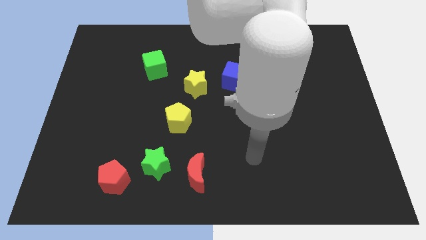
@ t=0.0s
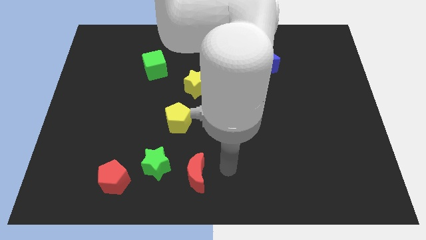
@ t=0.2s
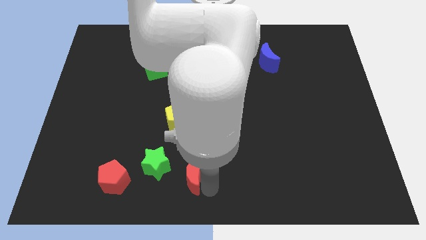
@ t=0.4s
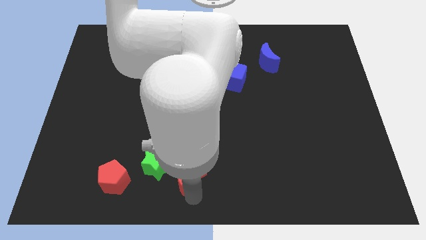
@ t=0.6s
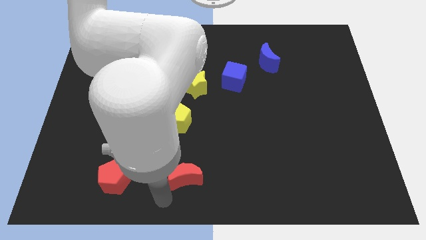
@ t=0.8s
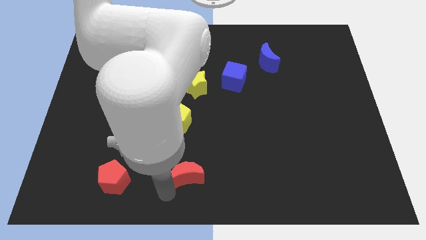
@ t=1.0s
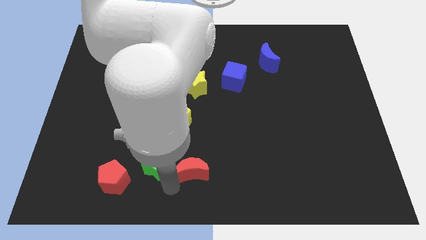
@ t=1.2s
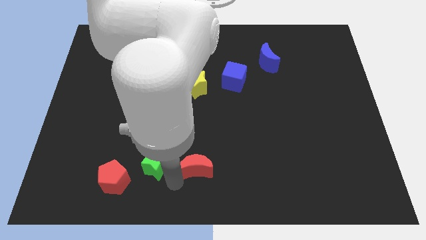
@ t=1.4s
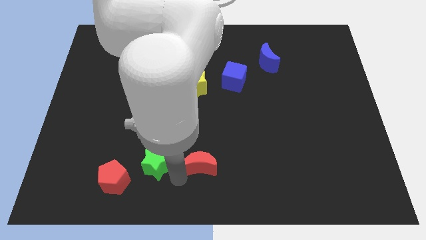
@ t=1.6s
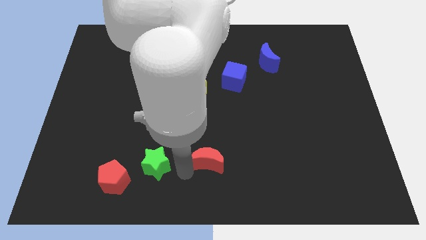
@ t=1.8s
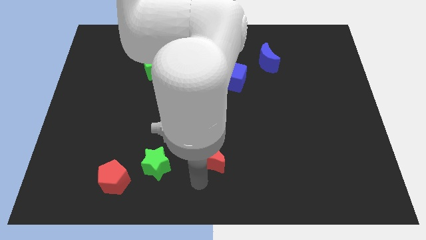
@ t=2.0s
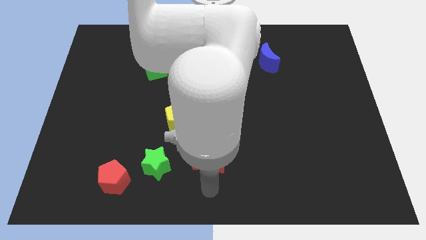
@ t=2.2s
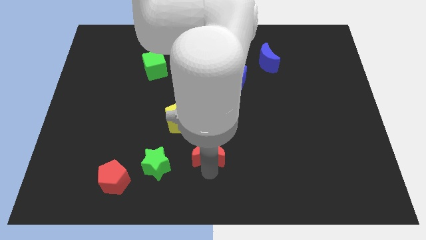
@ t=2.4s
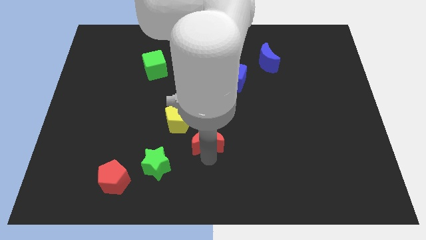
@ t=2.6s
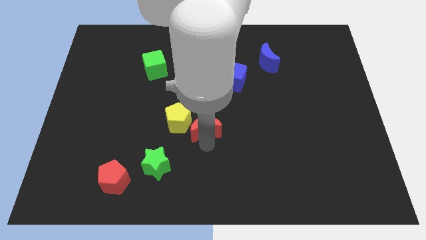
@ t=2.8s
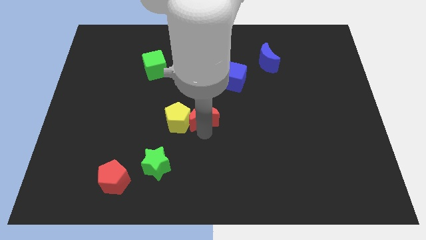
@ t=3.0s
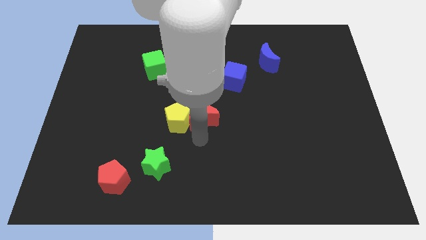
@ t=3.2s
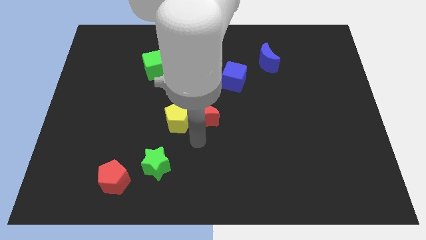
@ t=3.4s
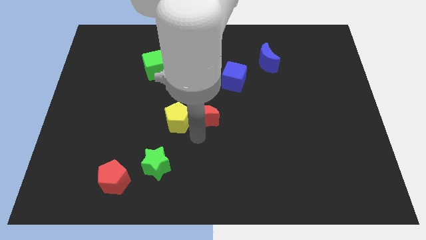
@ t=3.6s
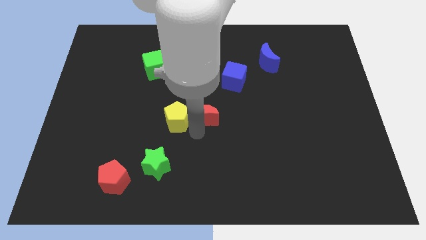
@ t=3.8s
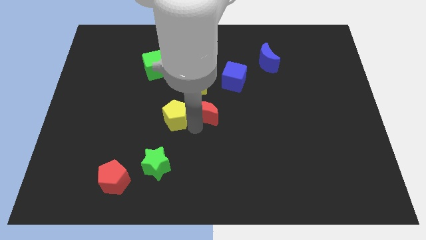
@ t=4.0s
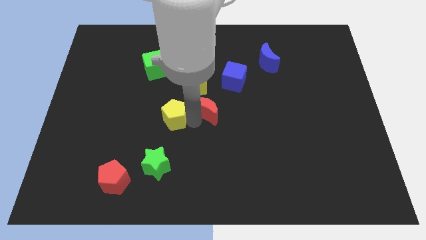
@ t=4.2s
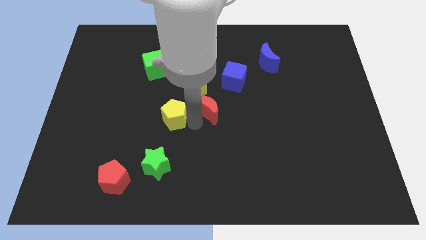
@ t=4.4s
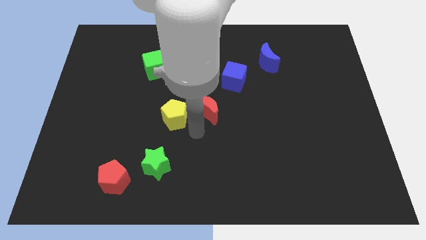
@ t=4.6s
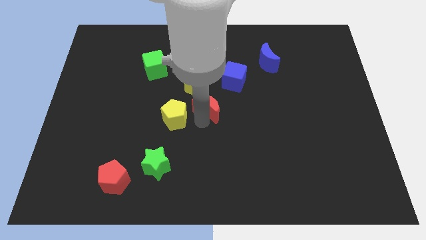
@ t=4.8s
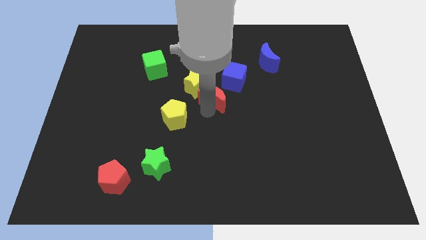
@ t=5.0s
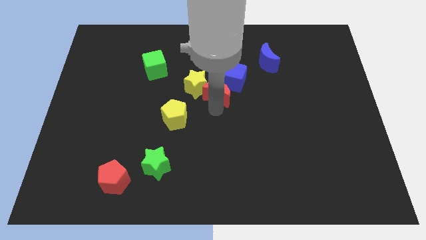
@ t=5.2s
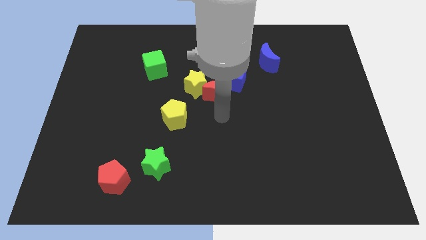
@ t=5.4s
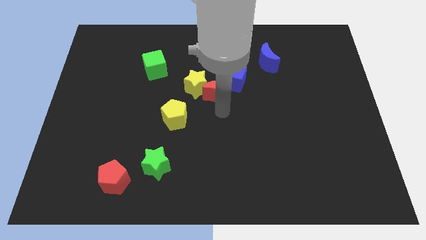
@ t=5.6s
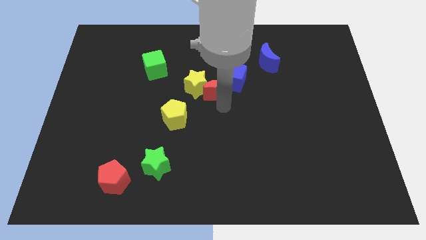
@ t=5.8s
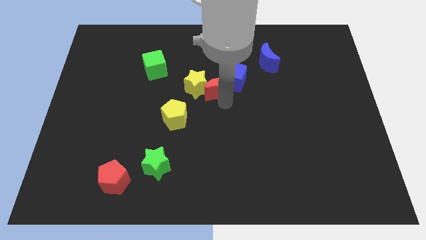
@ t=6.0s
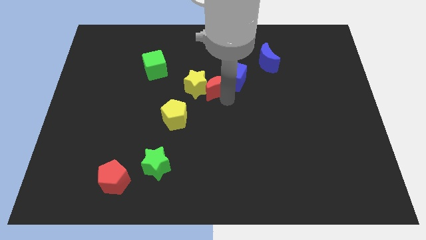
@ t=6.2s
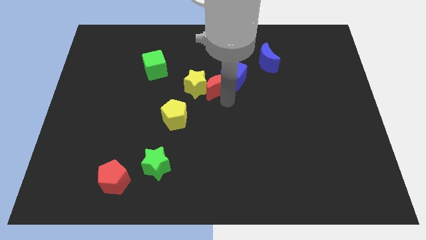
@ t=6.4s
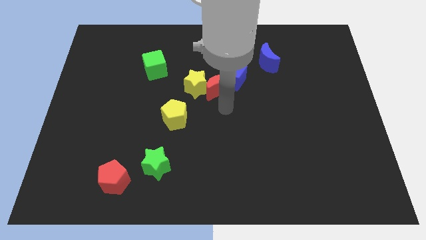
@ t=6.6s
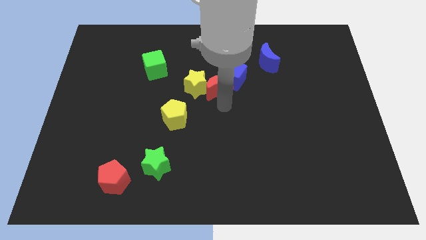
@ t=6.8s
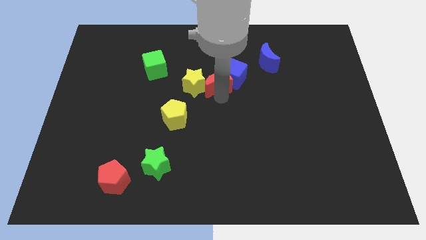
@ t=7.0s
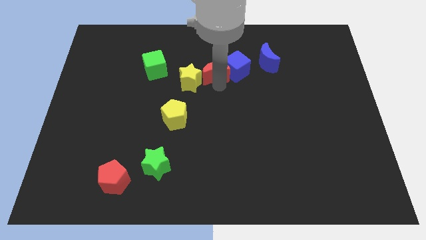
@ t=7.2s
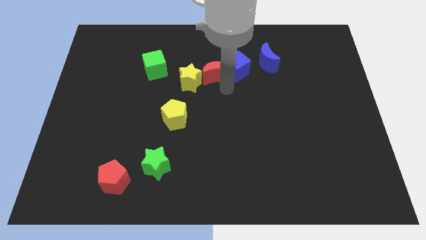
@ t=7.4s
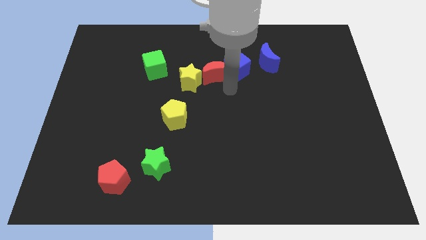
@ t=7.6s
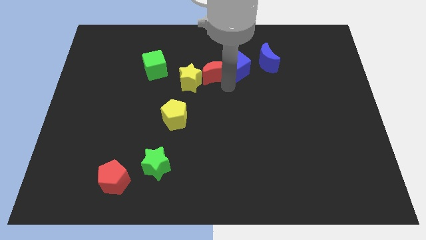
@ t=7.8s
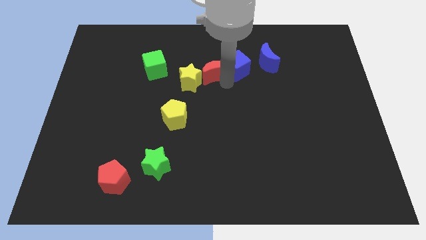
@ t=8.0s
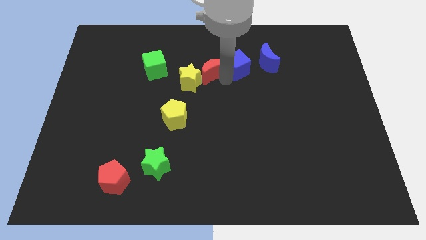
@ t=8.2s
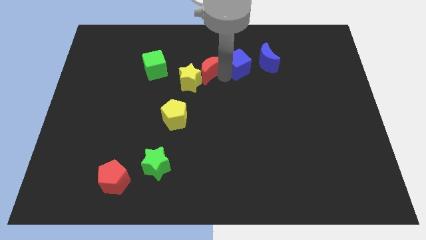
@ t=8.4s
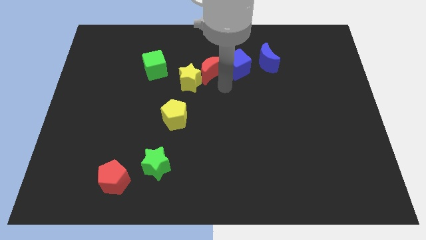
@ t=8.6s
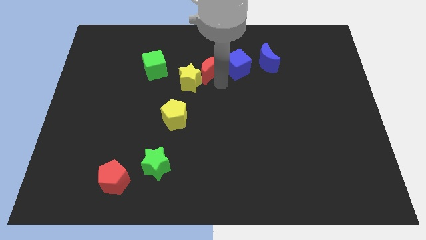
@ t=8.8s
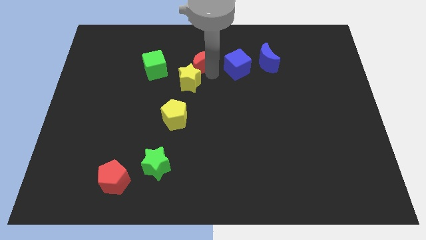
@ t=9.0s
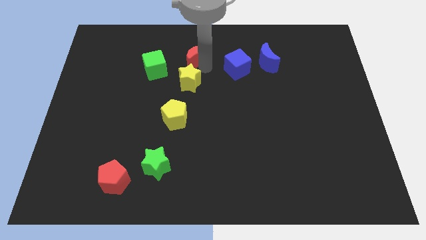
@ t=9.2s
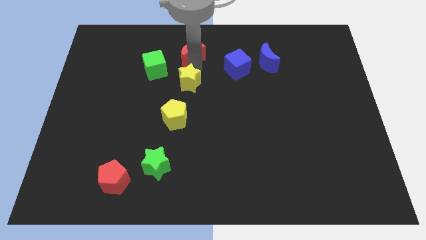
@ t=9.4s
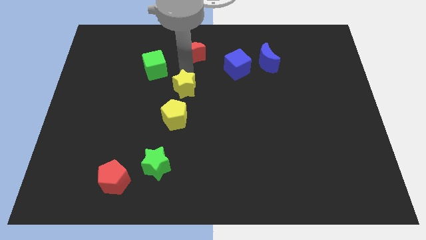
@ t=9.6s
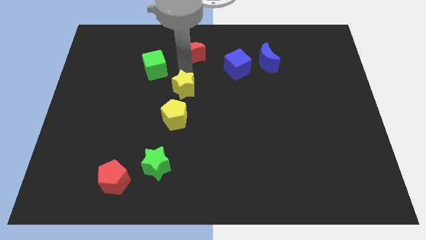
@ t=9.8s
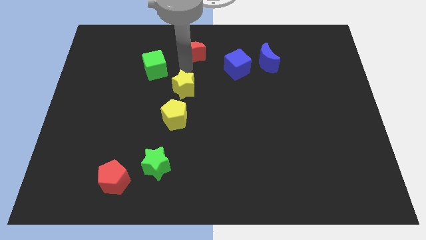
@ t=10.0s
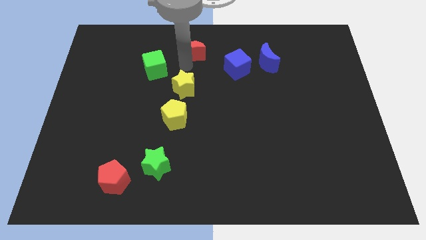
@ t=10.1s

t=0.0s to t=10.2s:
move the red moon to the top
